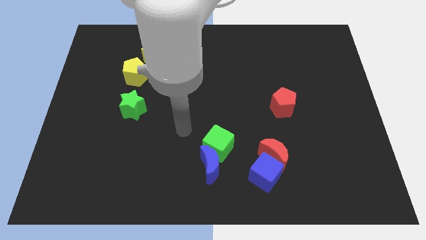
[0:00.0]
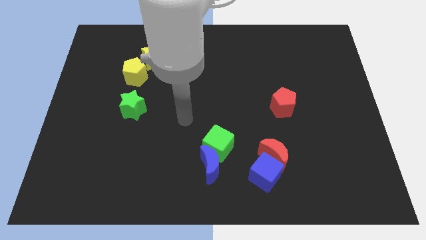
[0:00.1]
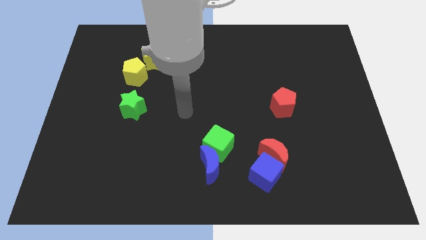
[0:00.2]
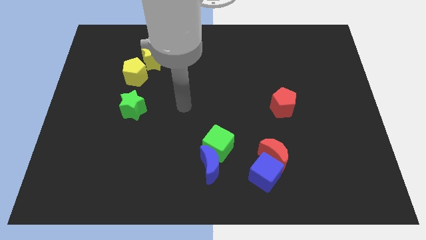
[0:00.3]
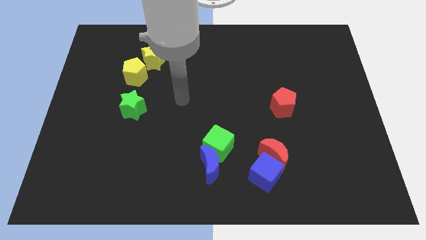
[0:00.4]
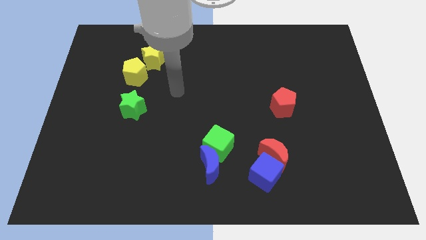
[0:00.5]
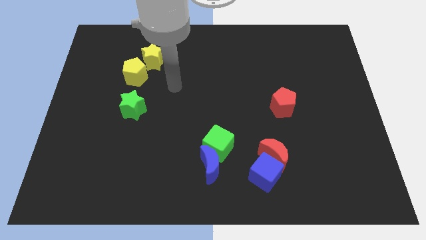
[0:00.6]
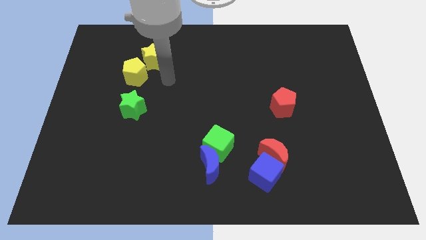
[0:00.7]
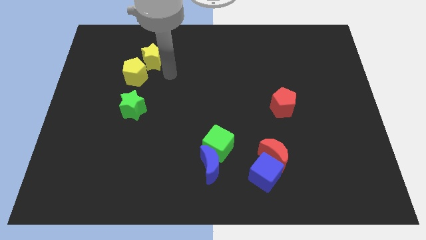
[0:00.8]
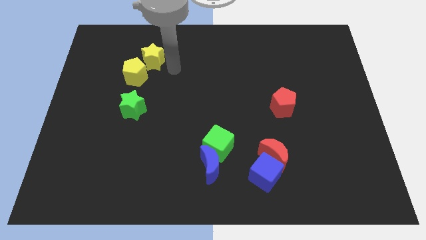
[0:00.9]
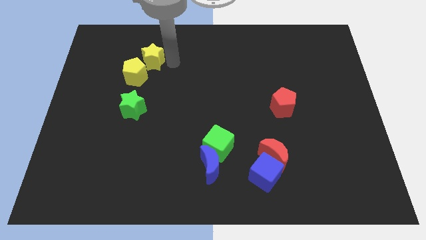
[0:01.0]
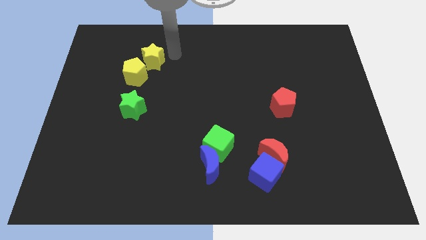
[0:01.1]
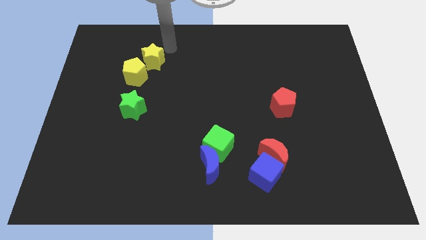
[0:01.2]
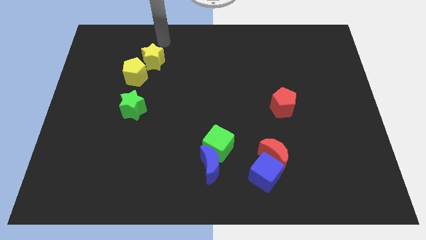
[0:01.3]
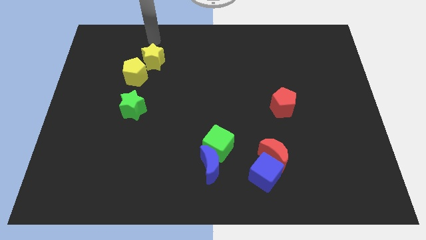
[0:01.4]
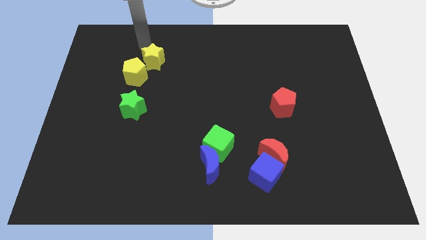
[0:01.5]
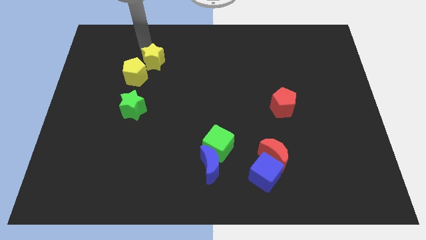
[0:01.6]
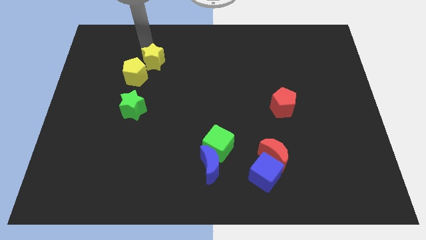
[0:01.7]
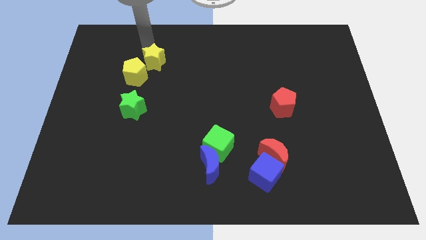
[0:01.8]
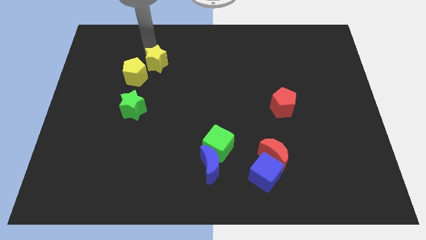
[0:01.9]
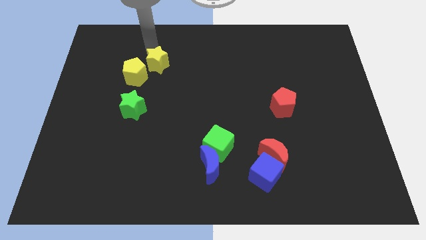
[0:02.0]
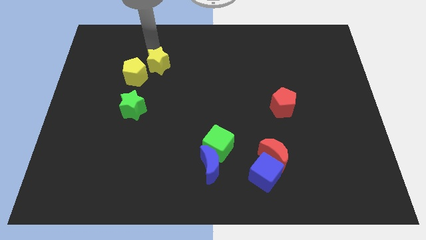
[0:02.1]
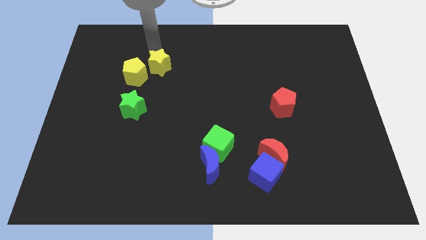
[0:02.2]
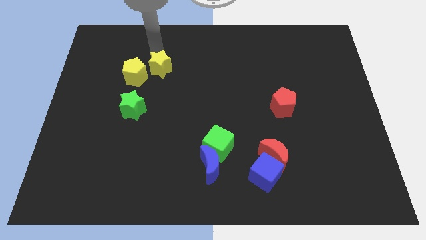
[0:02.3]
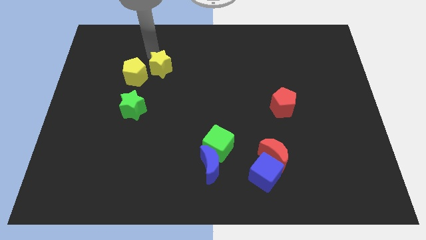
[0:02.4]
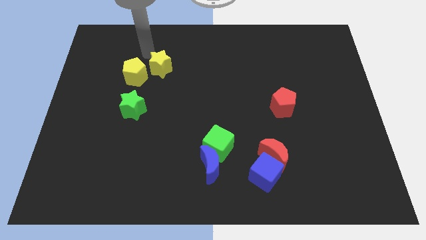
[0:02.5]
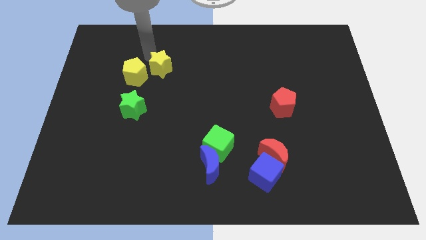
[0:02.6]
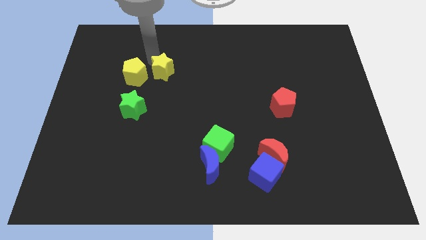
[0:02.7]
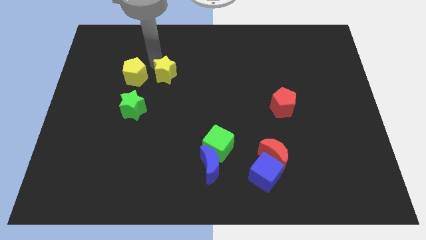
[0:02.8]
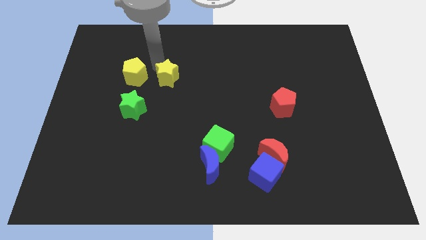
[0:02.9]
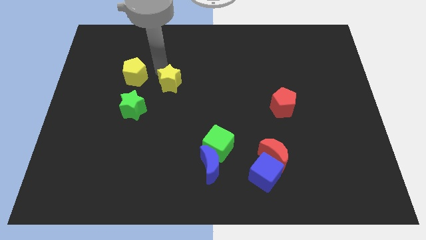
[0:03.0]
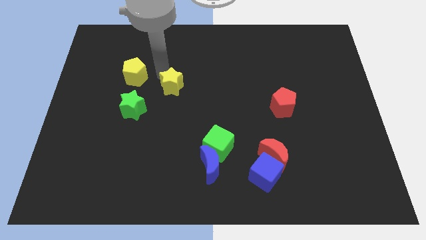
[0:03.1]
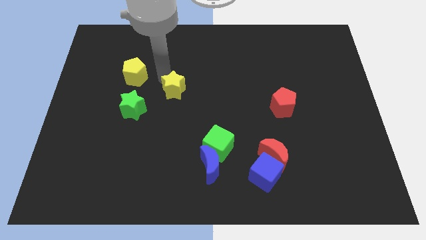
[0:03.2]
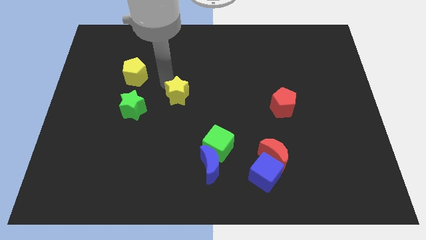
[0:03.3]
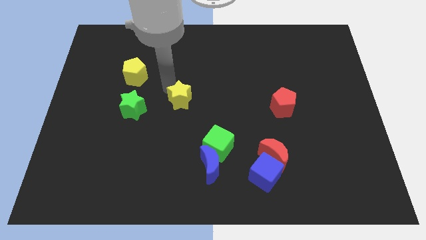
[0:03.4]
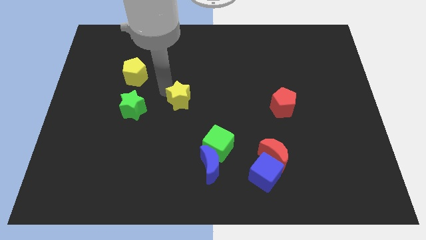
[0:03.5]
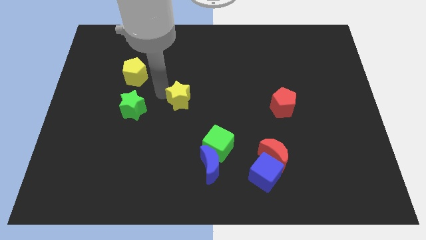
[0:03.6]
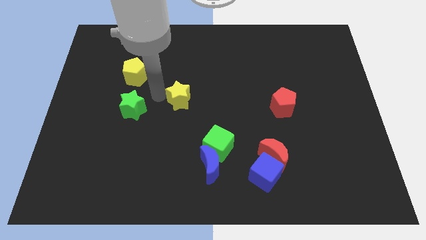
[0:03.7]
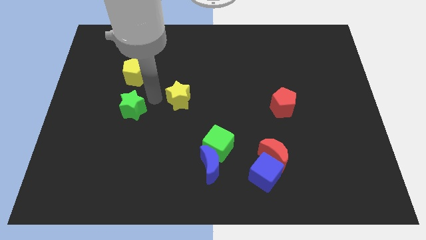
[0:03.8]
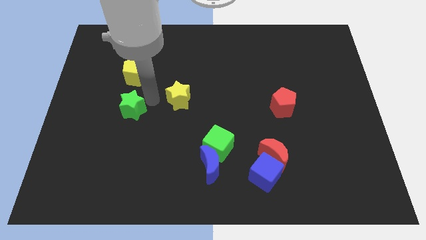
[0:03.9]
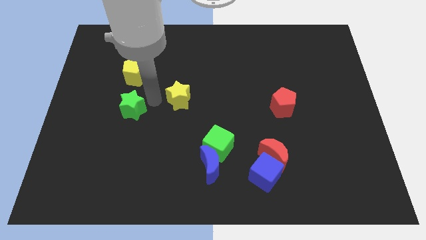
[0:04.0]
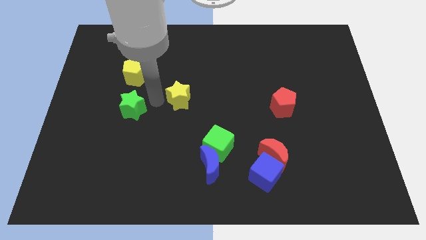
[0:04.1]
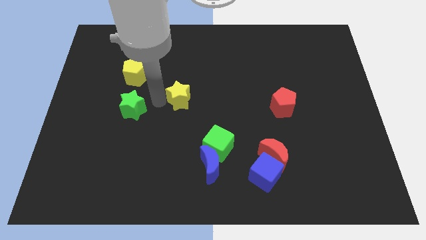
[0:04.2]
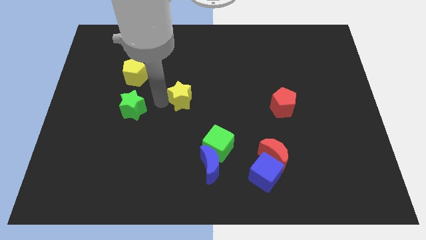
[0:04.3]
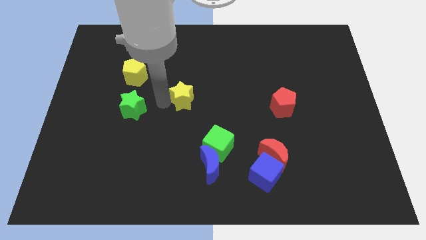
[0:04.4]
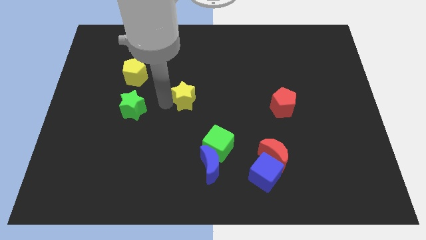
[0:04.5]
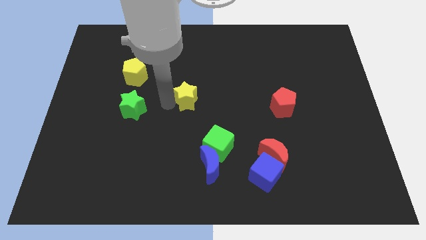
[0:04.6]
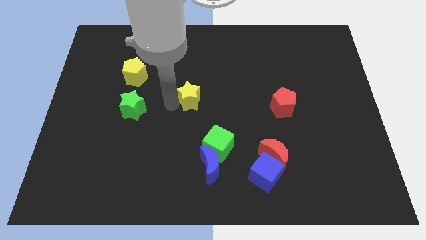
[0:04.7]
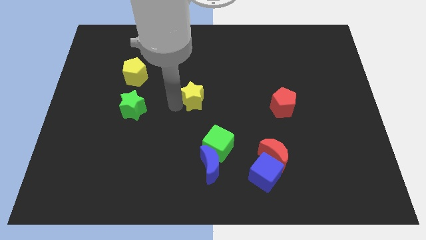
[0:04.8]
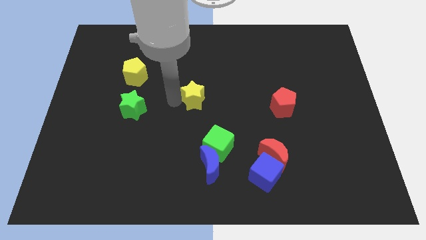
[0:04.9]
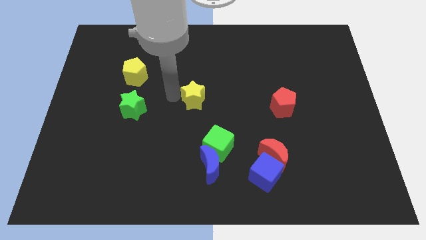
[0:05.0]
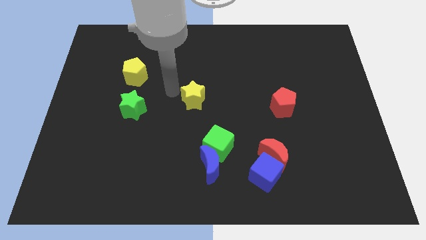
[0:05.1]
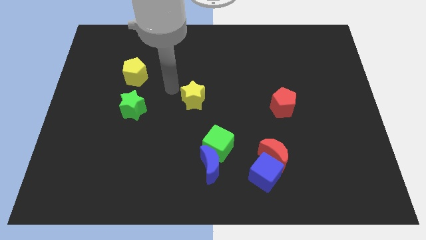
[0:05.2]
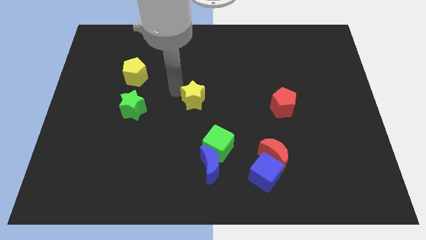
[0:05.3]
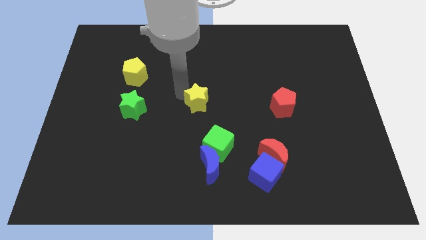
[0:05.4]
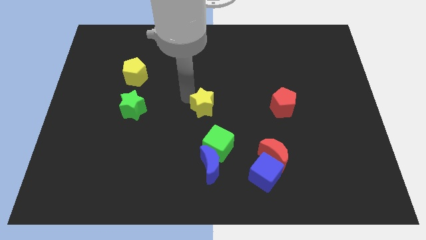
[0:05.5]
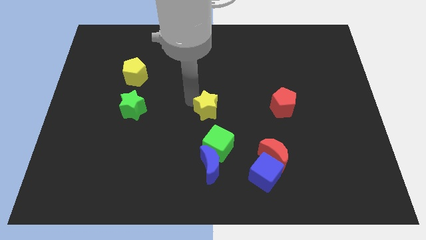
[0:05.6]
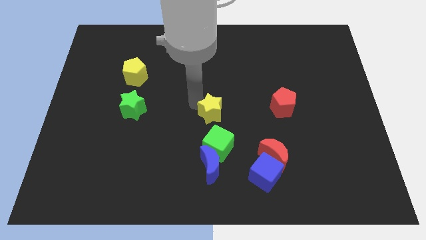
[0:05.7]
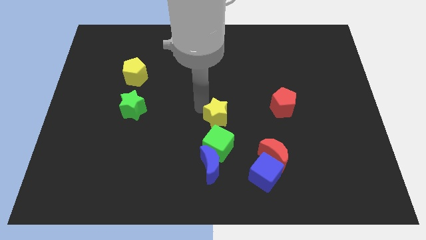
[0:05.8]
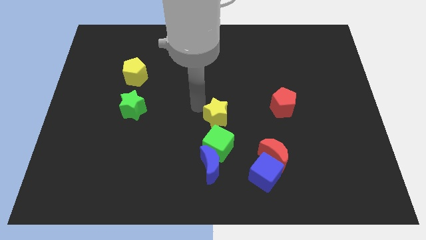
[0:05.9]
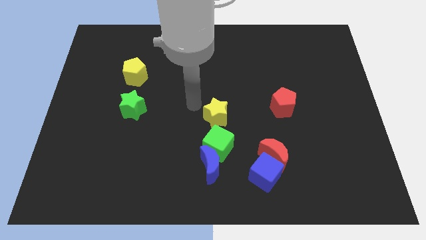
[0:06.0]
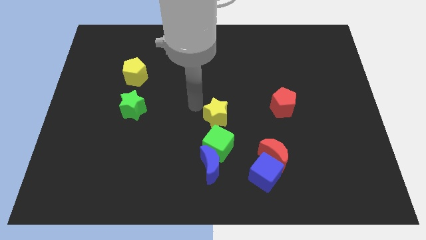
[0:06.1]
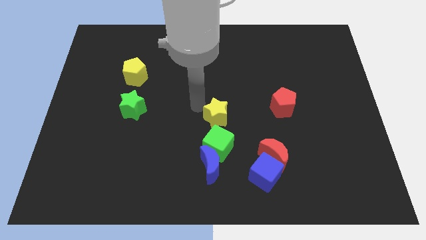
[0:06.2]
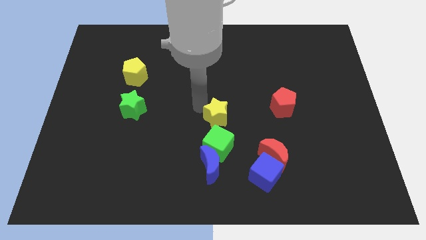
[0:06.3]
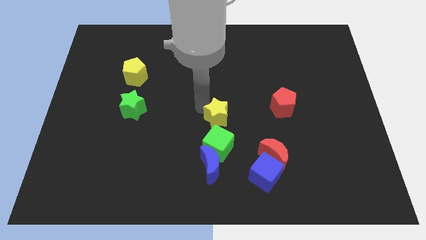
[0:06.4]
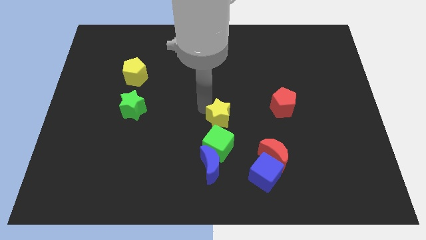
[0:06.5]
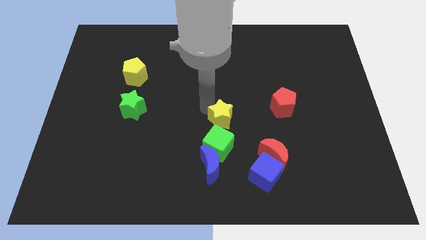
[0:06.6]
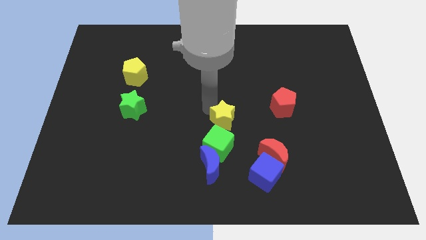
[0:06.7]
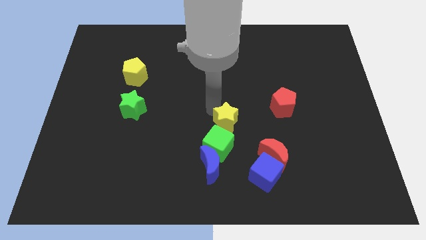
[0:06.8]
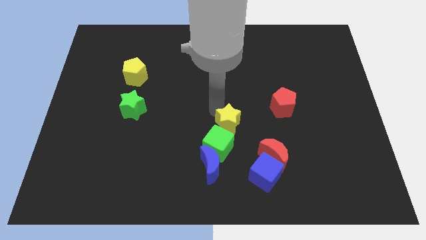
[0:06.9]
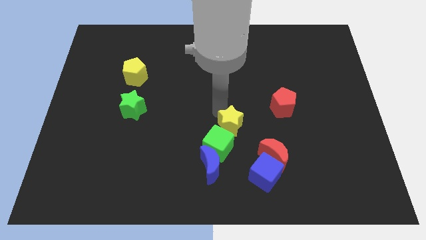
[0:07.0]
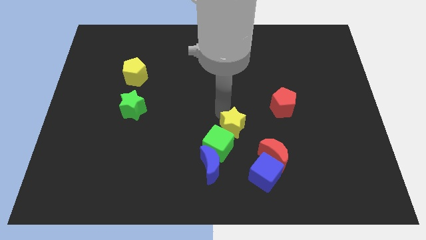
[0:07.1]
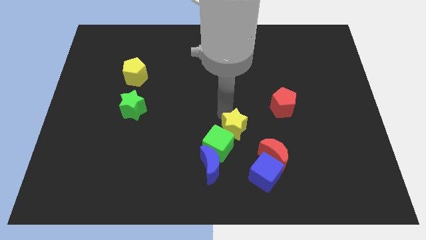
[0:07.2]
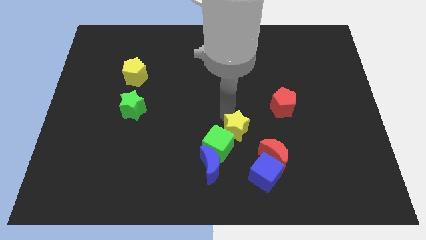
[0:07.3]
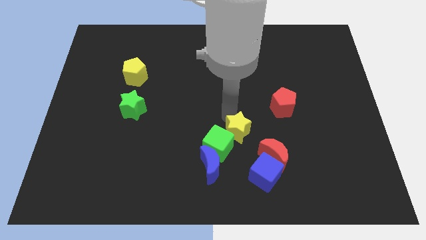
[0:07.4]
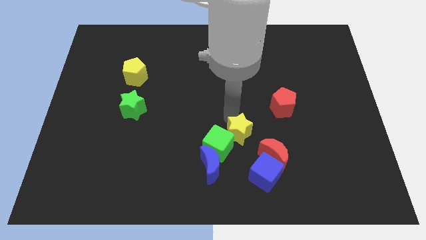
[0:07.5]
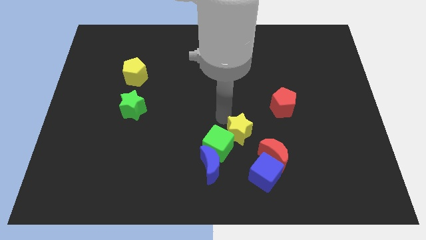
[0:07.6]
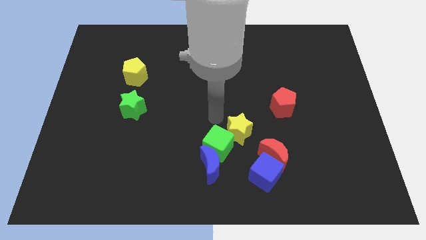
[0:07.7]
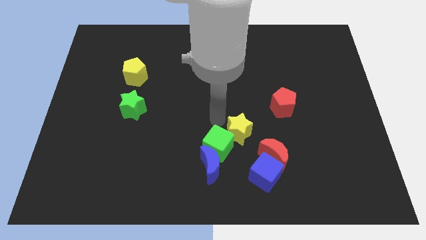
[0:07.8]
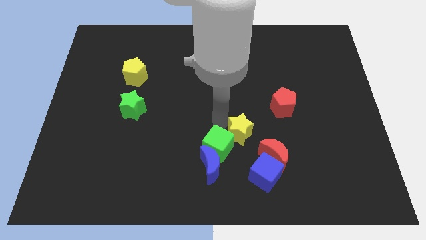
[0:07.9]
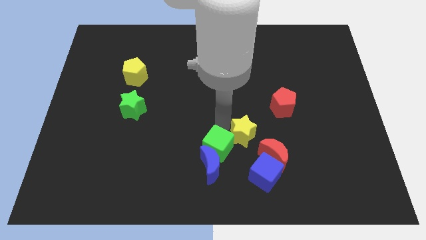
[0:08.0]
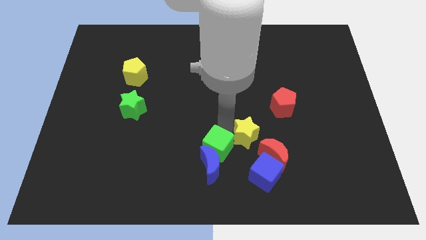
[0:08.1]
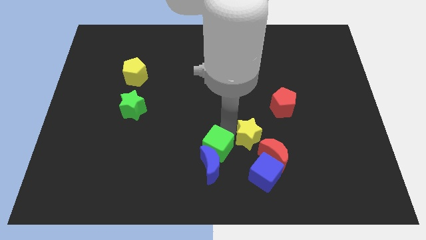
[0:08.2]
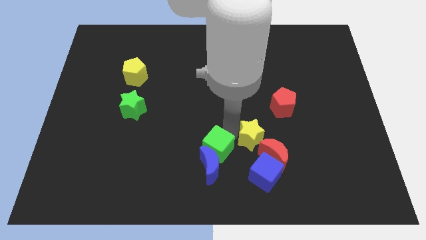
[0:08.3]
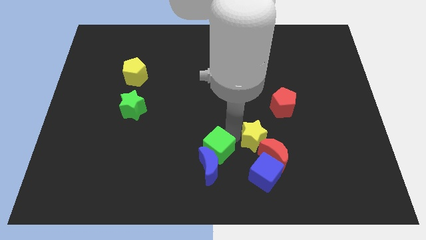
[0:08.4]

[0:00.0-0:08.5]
push the yellow star close to the red moon
